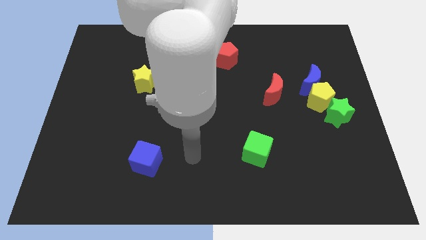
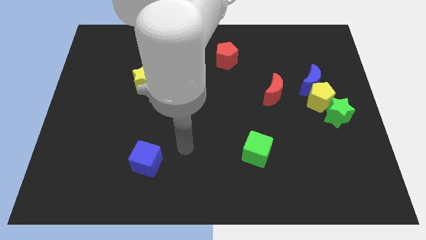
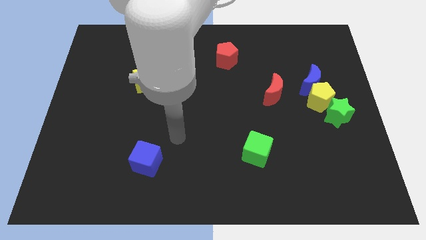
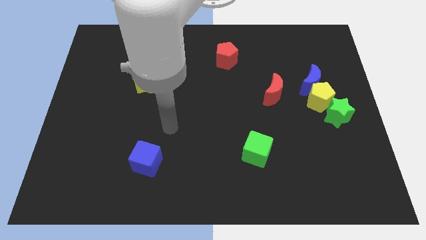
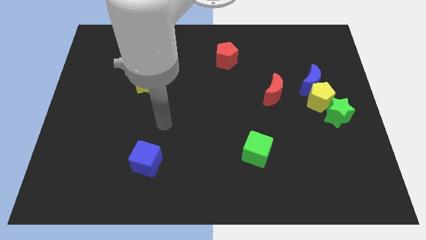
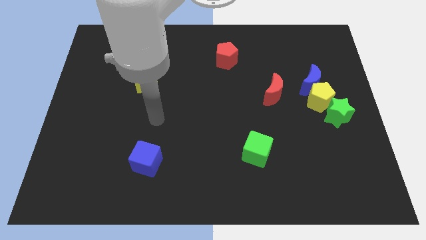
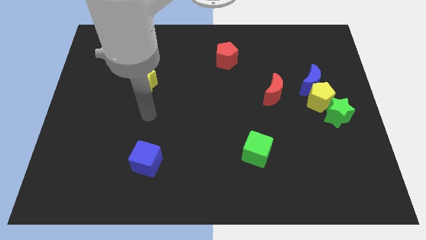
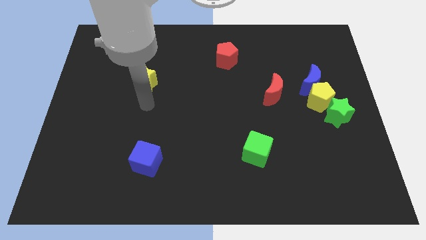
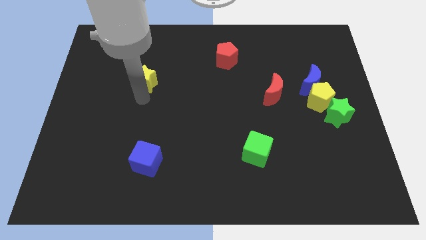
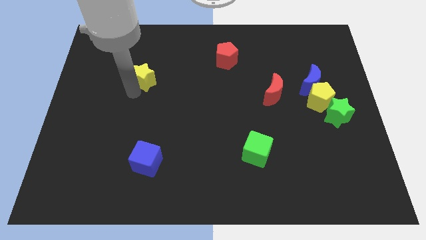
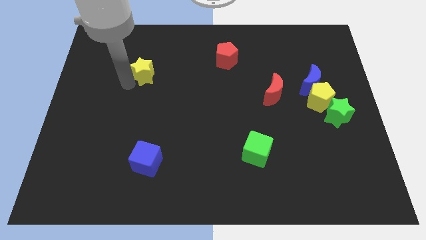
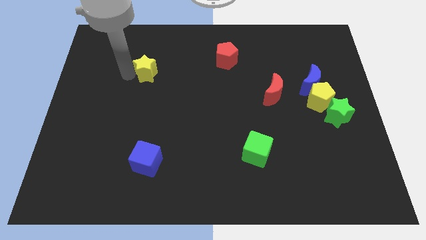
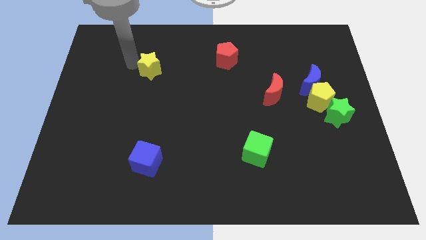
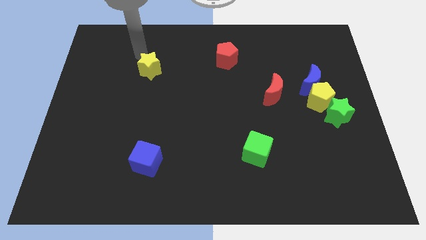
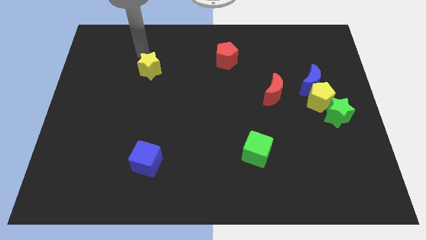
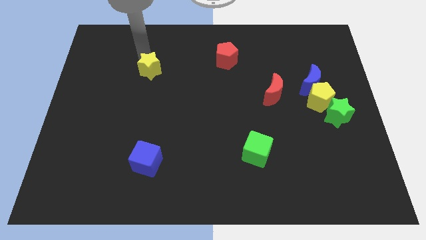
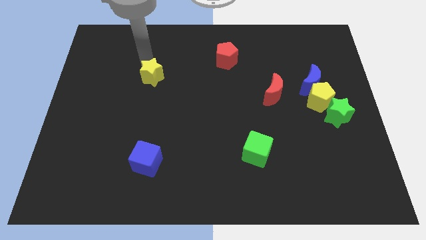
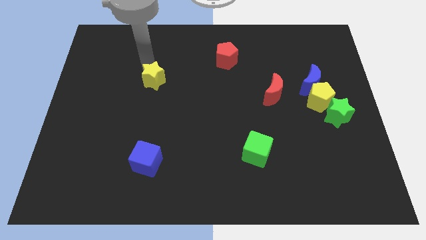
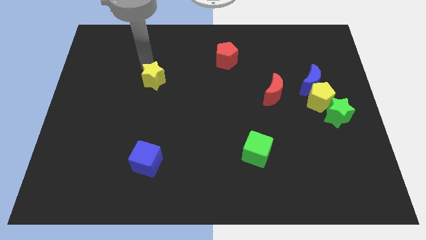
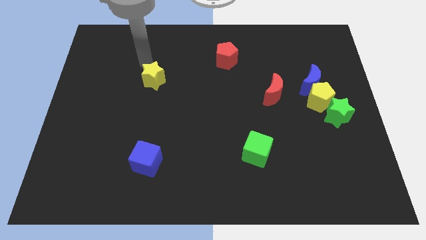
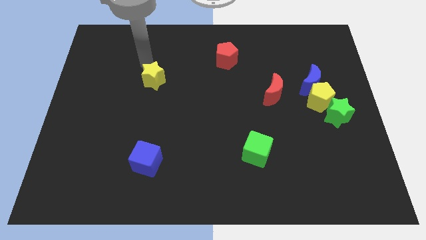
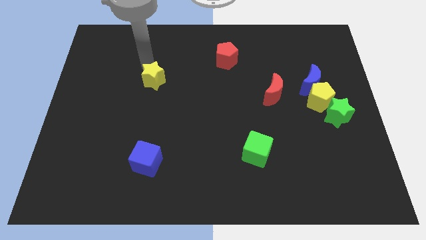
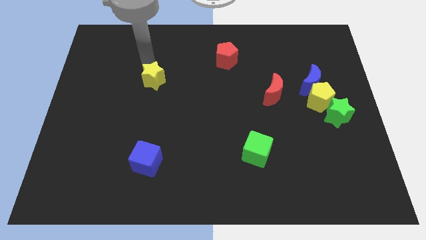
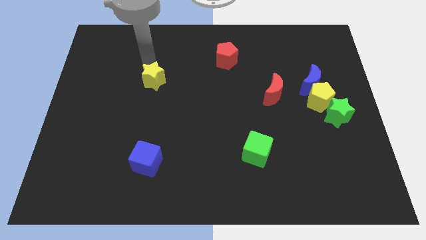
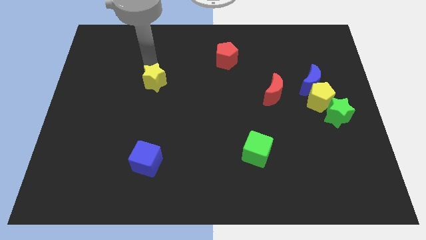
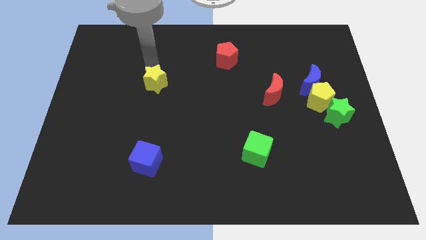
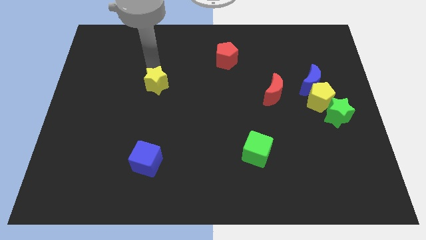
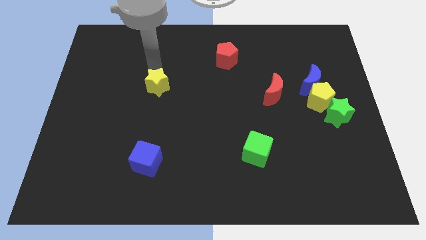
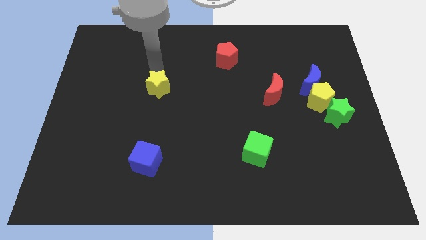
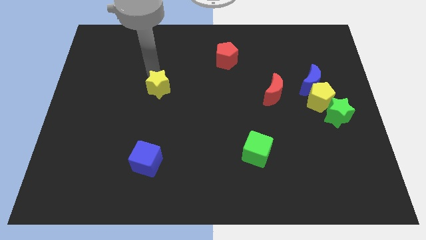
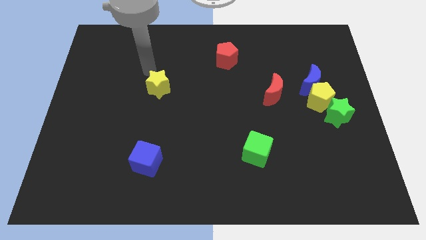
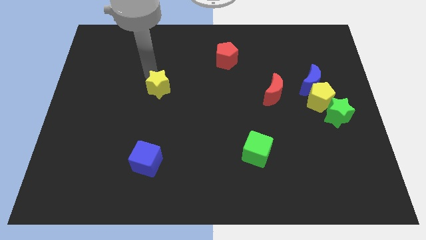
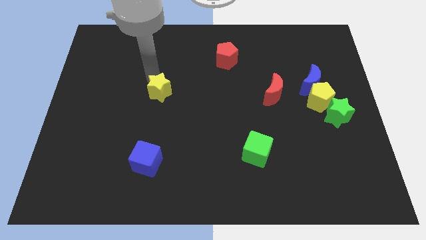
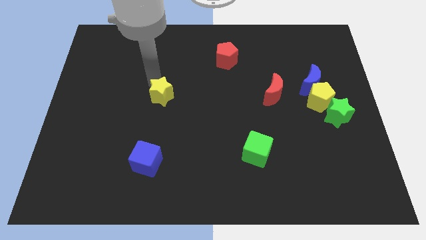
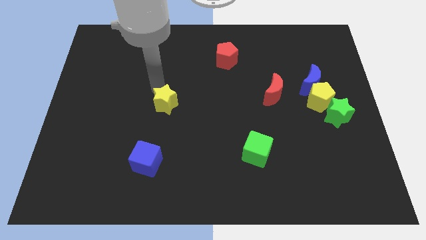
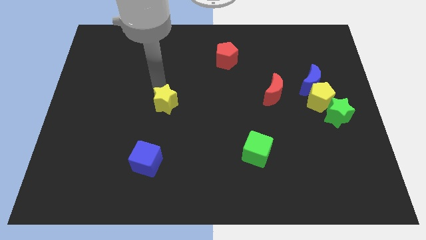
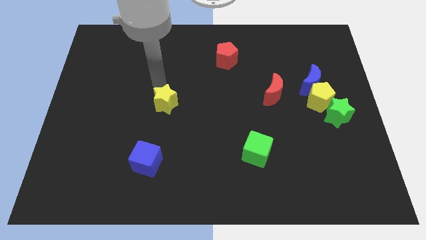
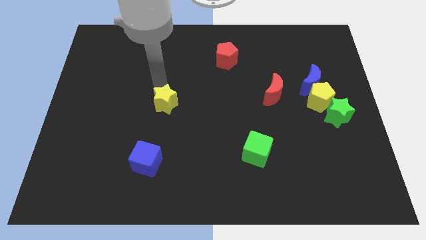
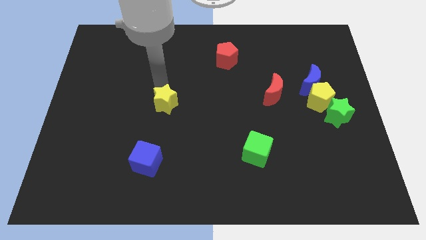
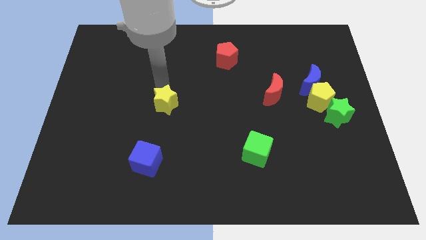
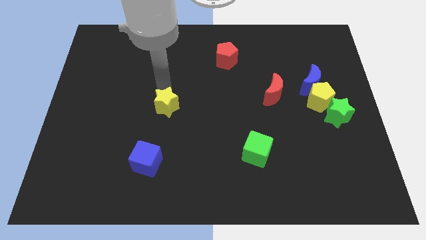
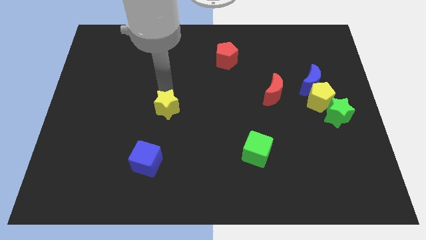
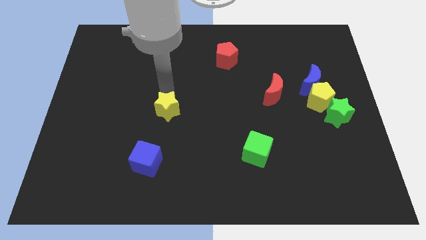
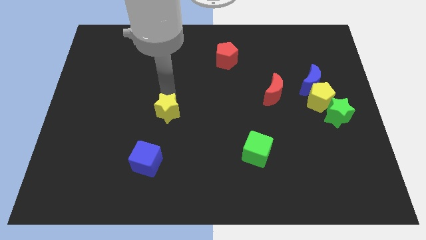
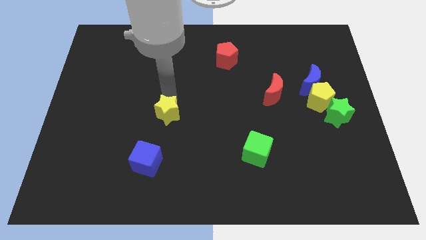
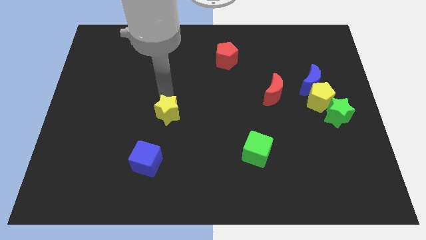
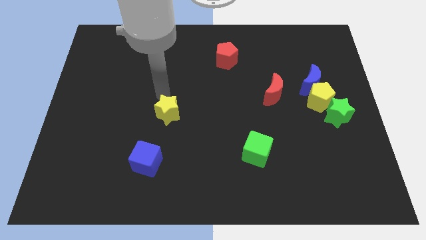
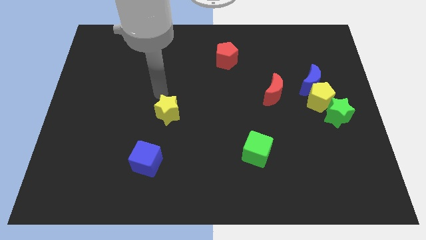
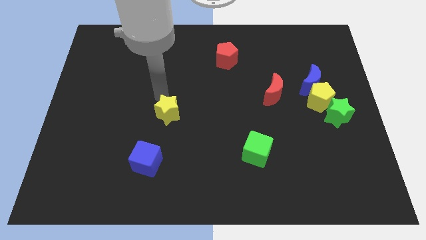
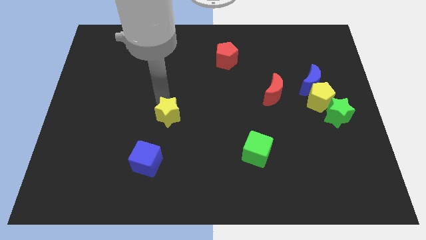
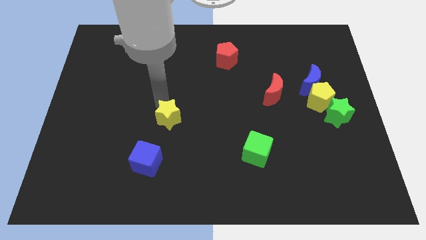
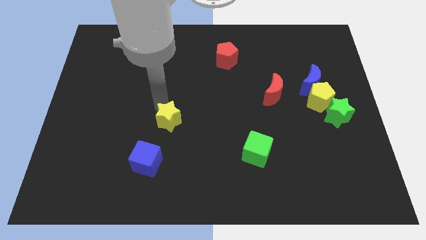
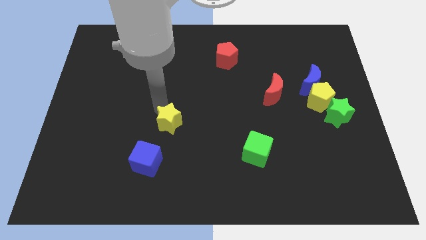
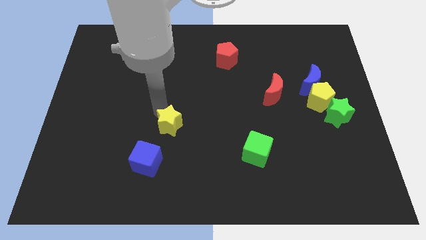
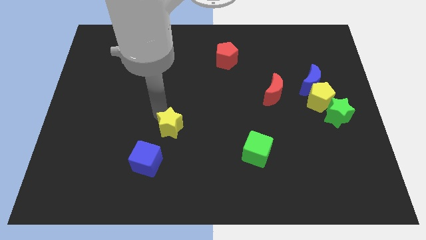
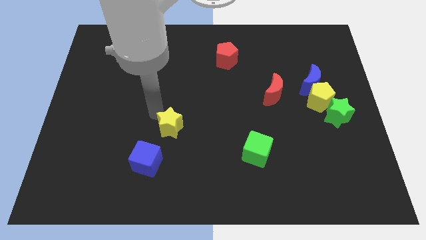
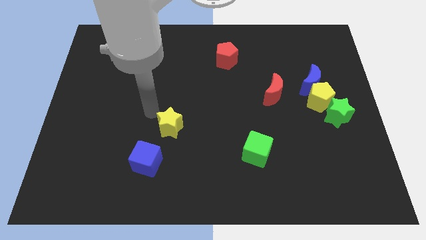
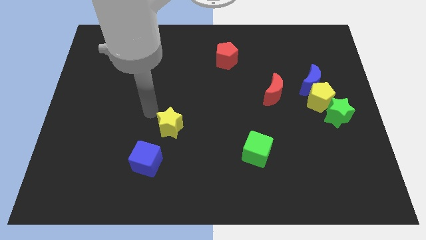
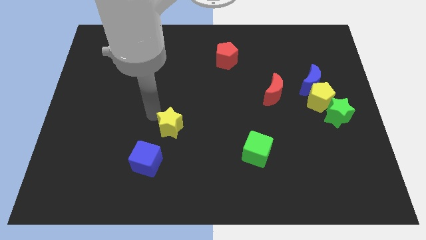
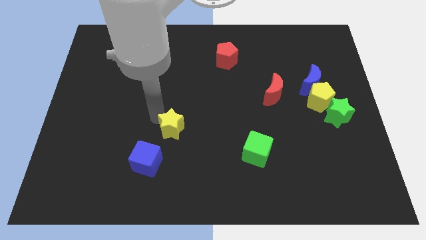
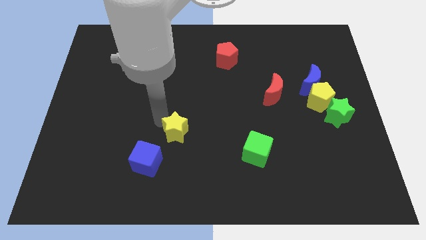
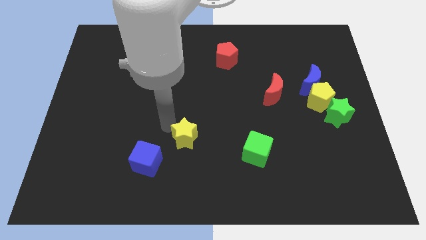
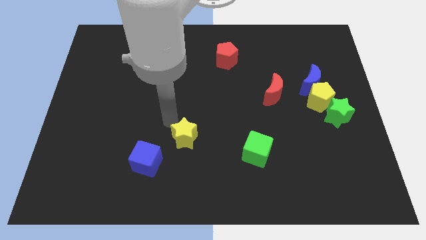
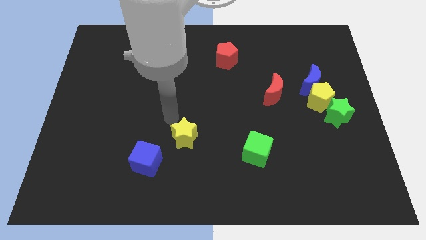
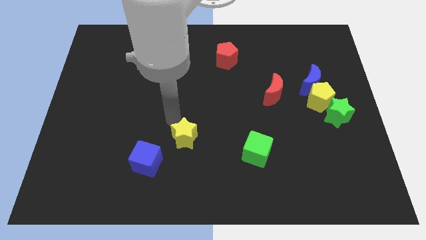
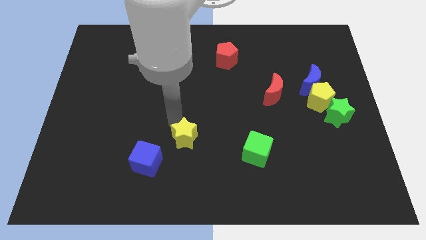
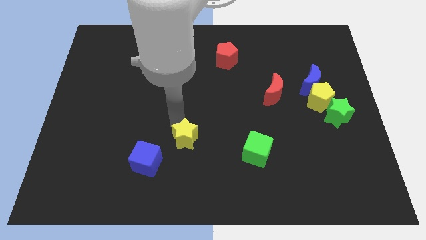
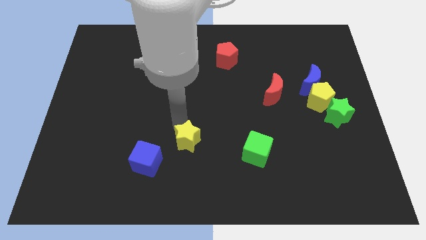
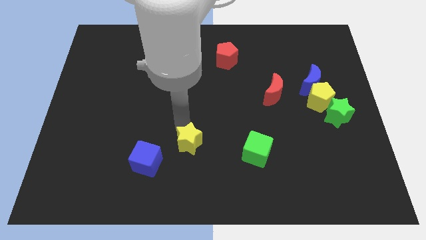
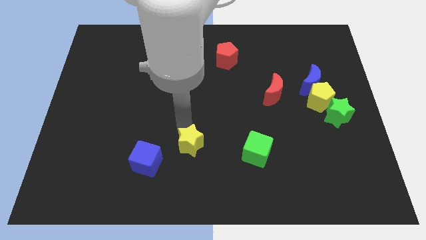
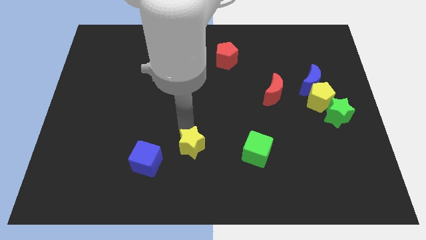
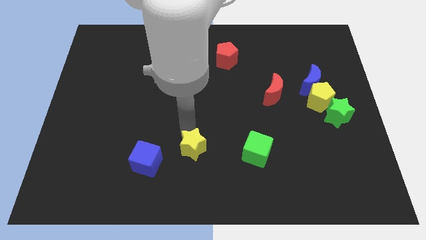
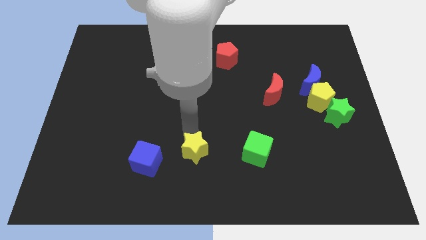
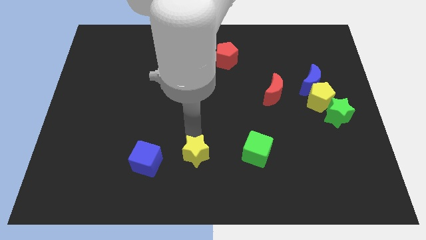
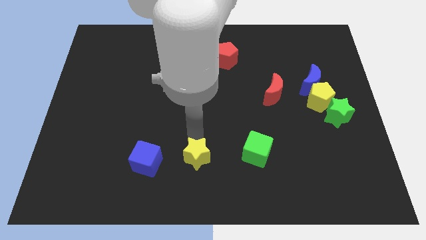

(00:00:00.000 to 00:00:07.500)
slide the yellow star to the bottom side
